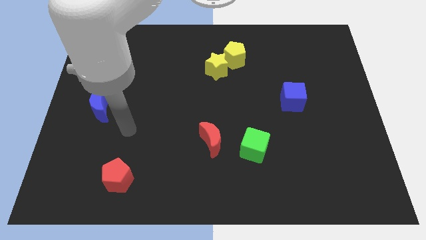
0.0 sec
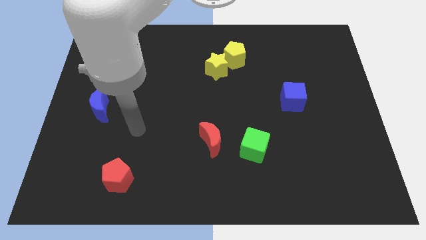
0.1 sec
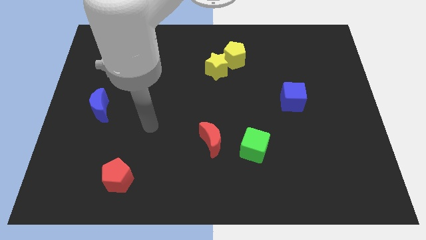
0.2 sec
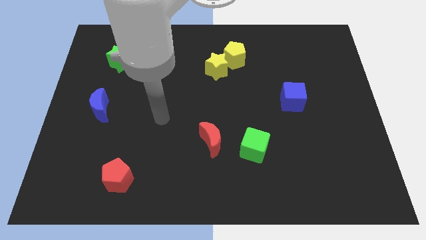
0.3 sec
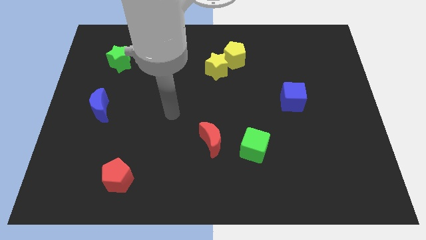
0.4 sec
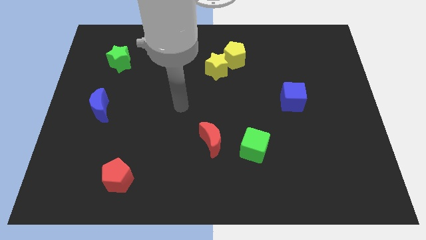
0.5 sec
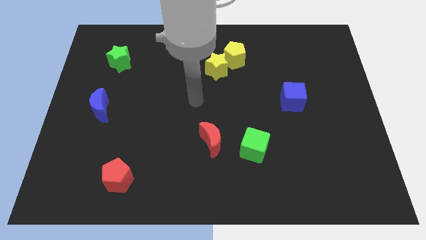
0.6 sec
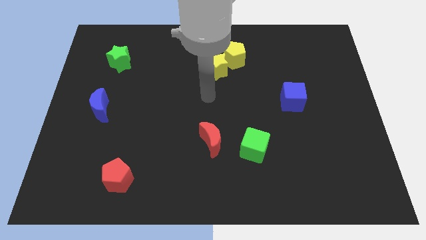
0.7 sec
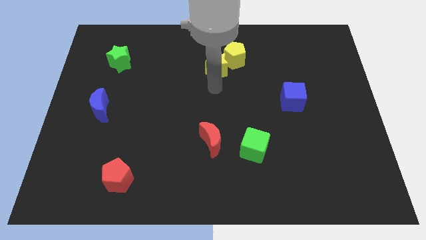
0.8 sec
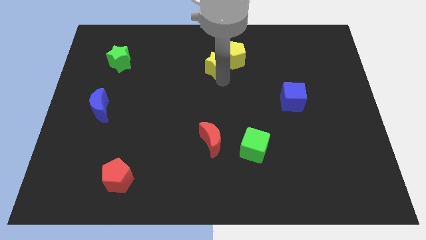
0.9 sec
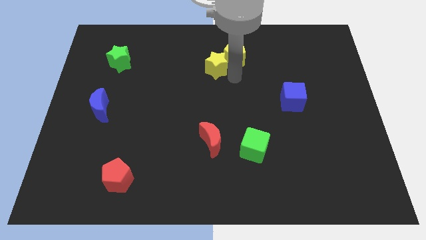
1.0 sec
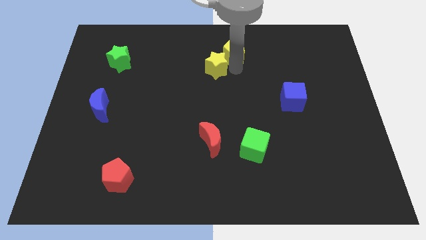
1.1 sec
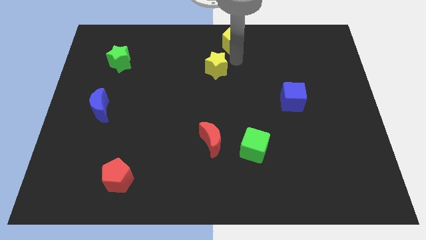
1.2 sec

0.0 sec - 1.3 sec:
separate the yellow star from the yellow pentagon

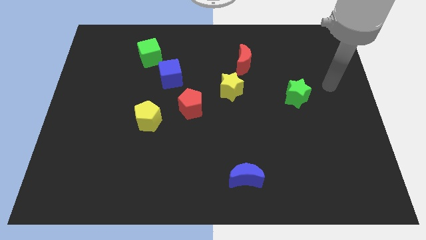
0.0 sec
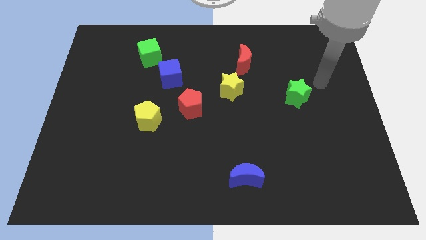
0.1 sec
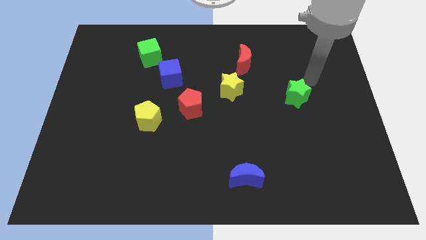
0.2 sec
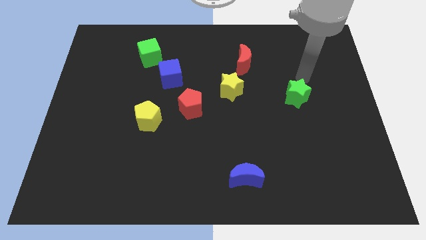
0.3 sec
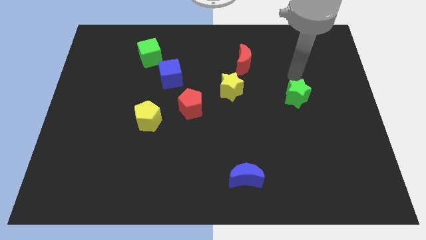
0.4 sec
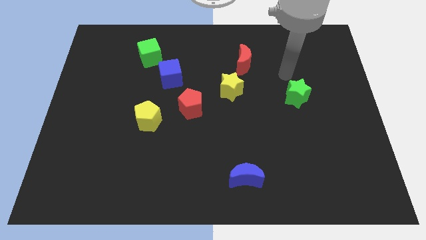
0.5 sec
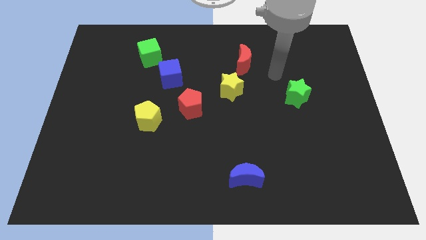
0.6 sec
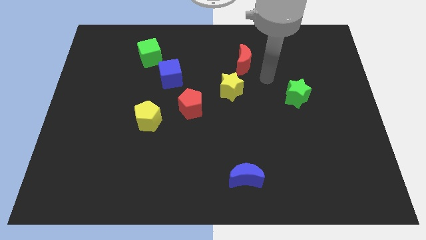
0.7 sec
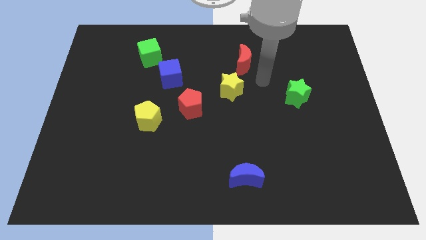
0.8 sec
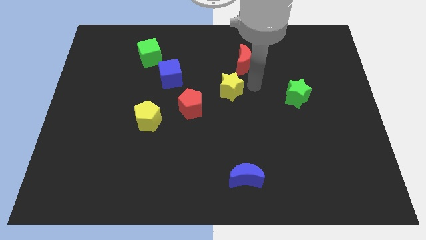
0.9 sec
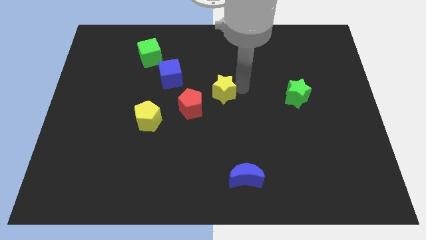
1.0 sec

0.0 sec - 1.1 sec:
separate the red moon from the yellow star

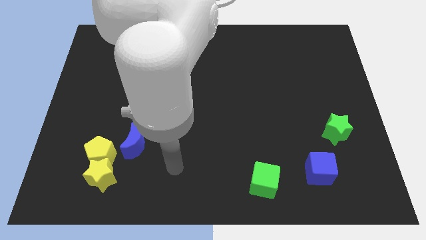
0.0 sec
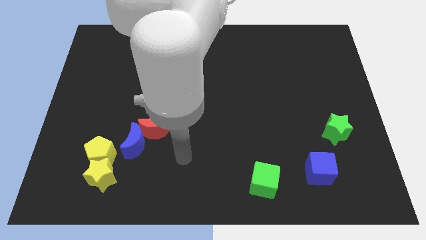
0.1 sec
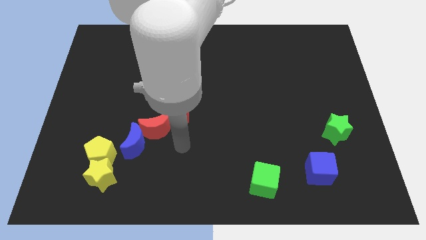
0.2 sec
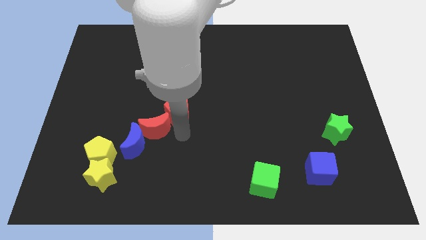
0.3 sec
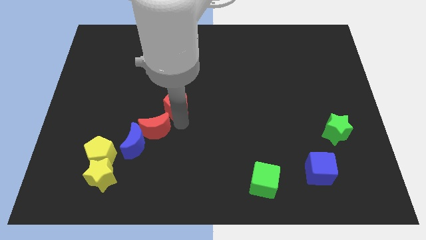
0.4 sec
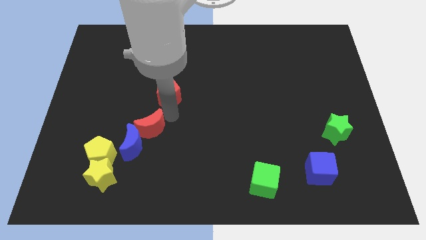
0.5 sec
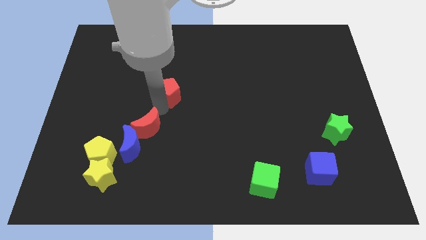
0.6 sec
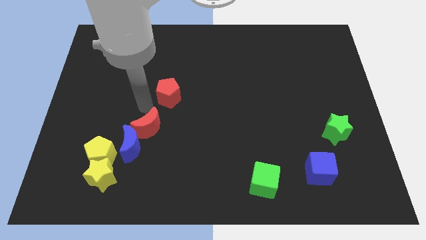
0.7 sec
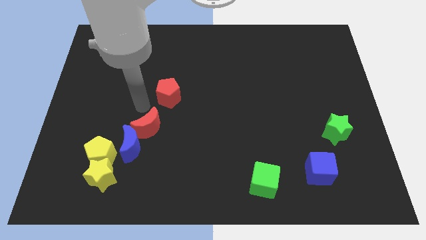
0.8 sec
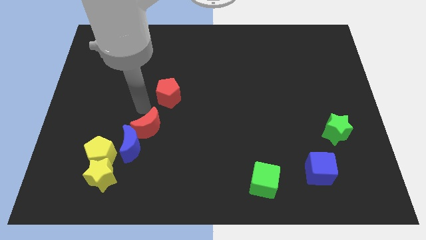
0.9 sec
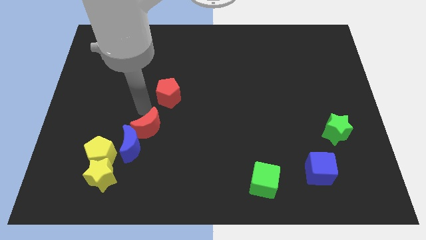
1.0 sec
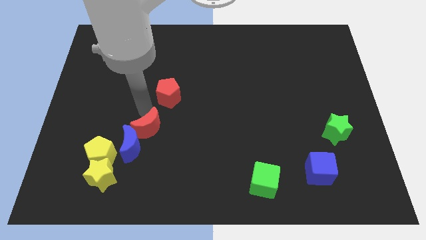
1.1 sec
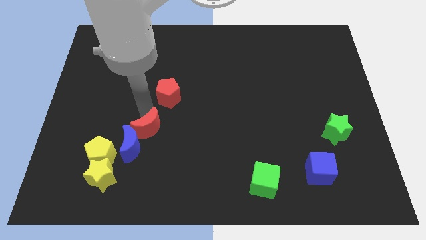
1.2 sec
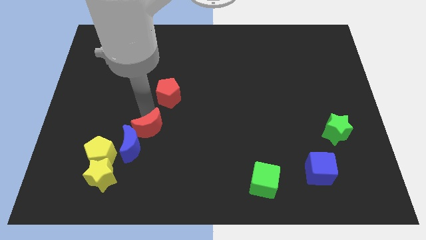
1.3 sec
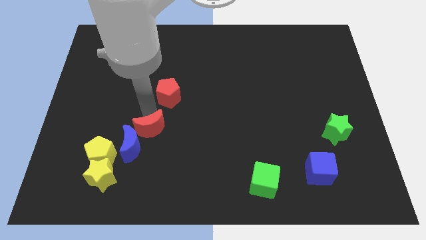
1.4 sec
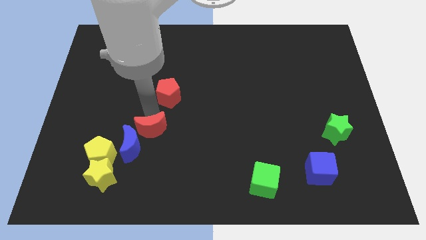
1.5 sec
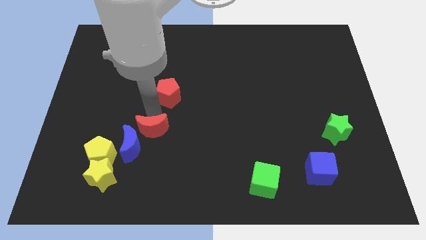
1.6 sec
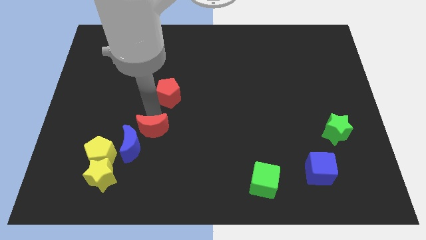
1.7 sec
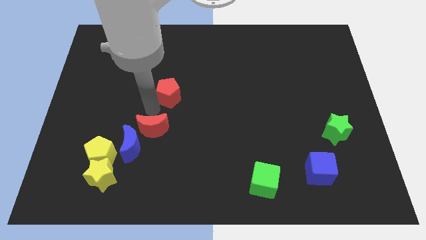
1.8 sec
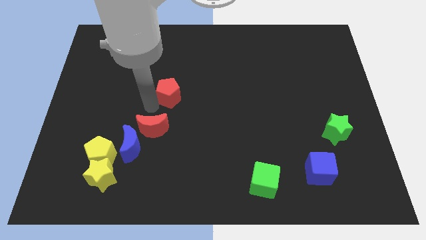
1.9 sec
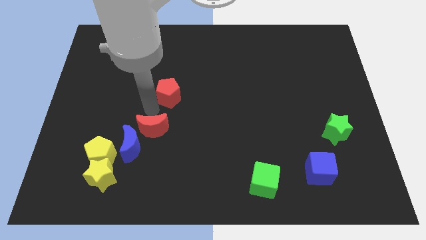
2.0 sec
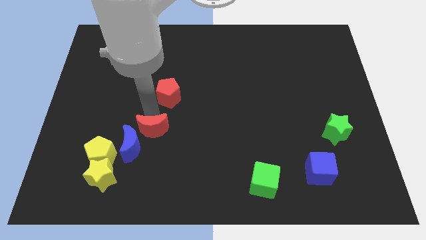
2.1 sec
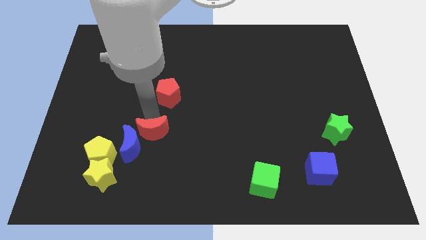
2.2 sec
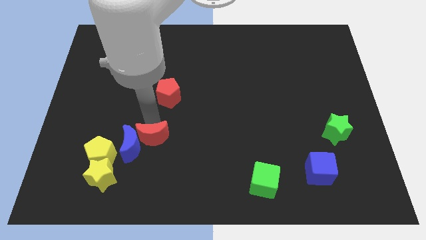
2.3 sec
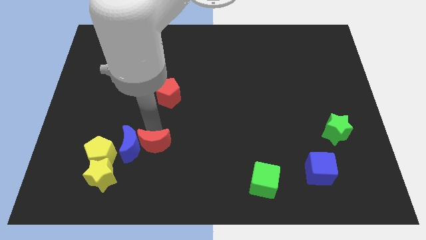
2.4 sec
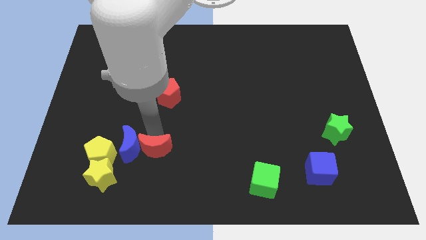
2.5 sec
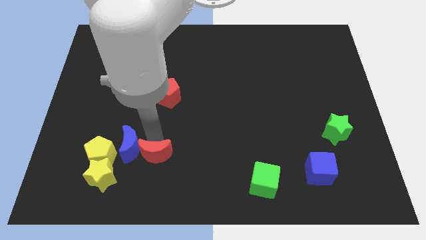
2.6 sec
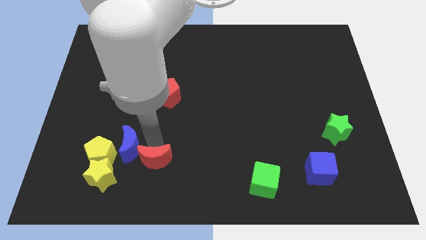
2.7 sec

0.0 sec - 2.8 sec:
move the red moon away from the blue moon and red pentagon

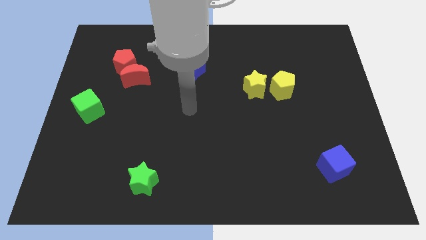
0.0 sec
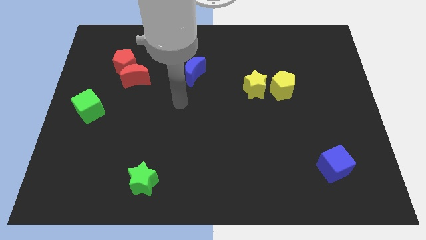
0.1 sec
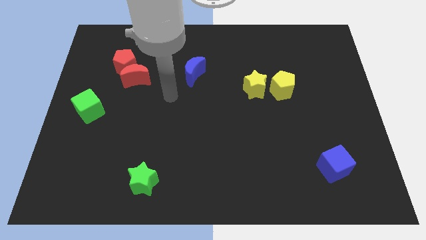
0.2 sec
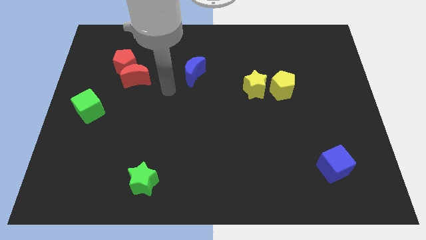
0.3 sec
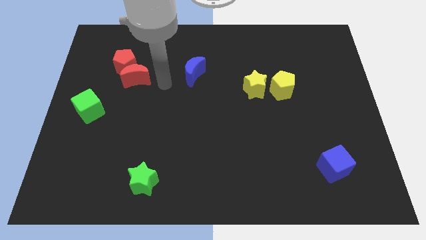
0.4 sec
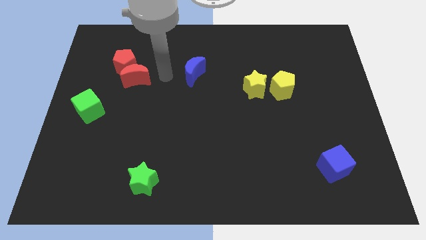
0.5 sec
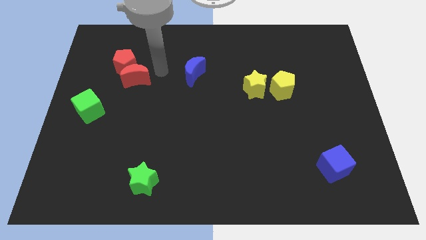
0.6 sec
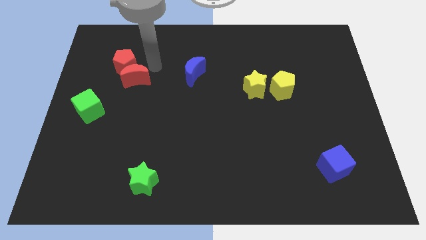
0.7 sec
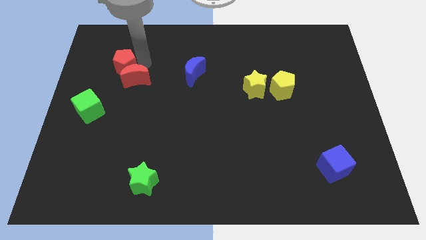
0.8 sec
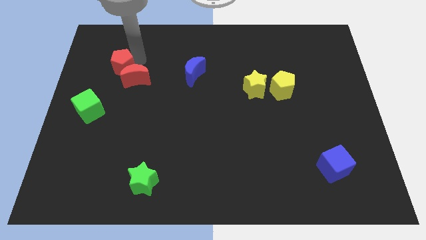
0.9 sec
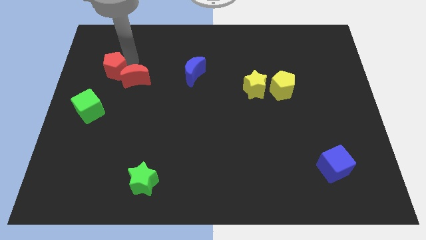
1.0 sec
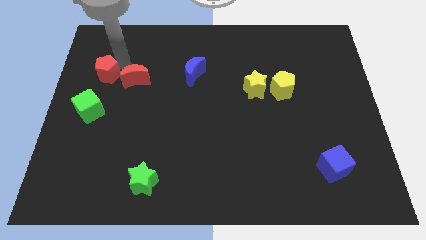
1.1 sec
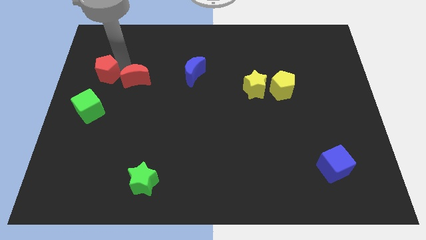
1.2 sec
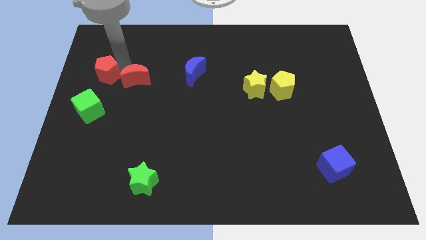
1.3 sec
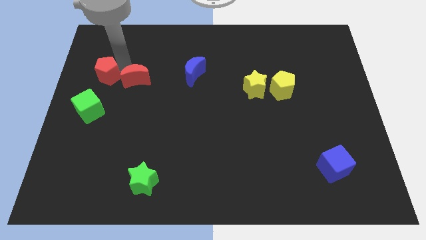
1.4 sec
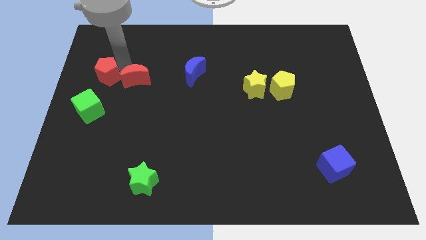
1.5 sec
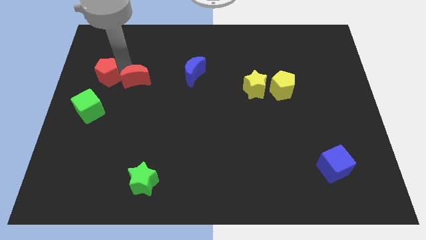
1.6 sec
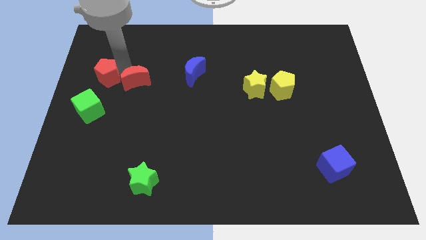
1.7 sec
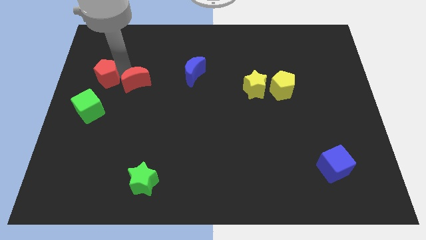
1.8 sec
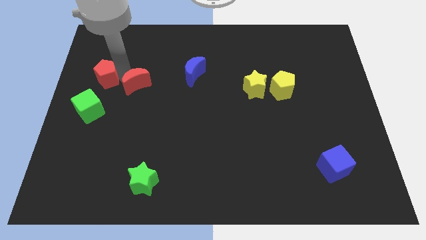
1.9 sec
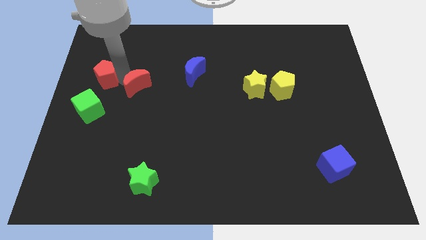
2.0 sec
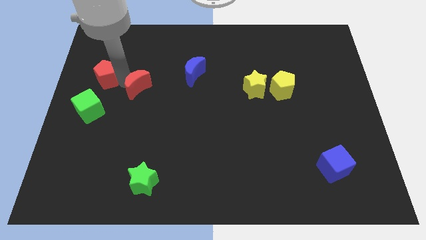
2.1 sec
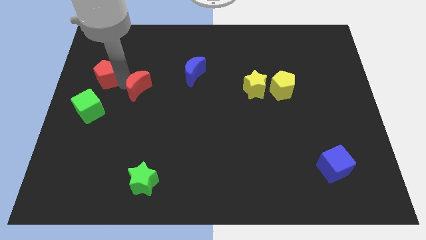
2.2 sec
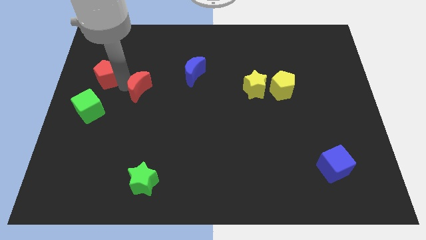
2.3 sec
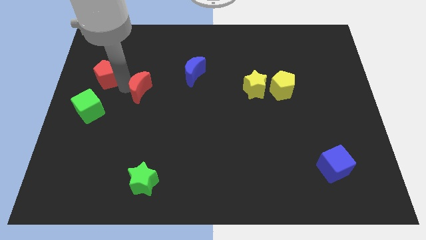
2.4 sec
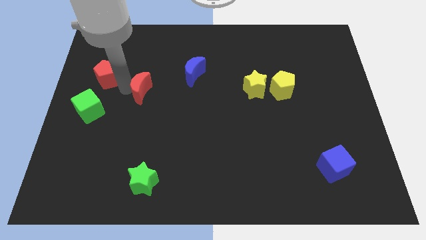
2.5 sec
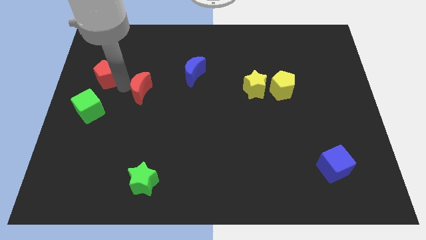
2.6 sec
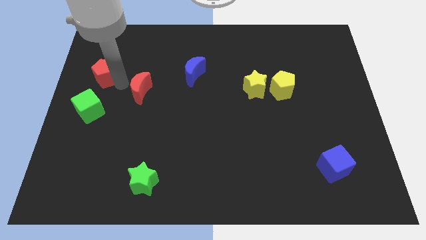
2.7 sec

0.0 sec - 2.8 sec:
separate the red moon from the red pentagon

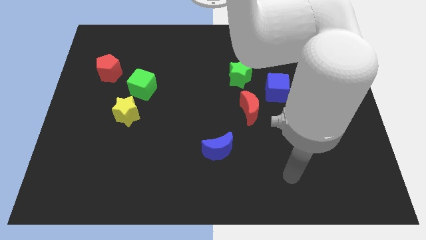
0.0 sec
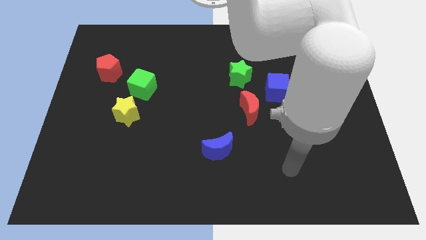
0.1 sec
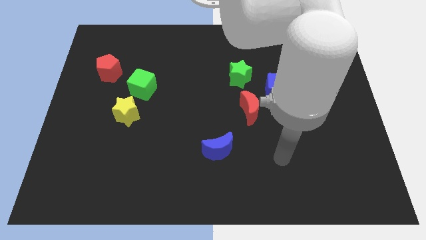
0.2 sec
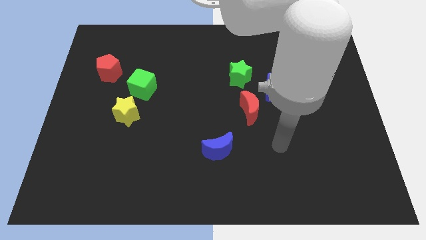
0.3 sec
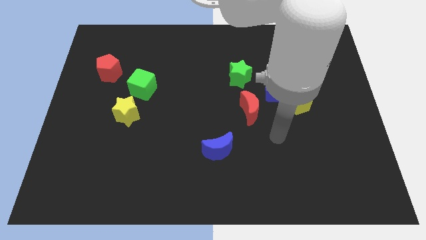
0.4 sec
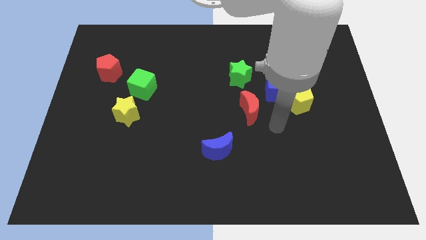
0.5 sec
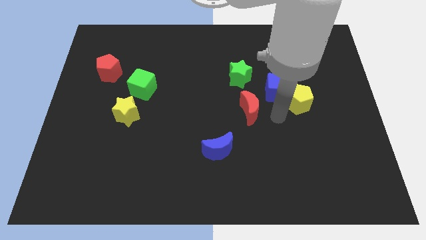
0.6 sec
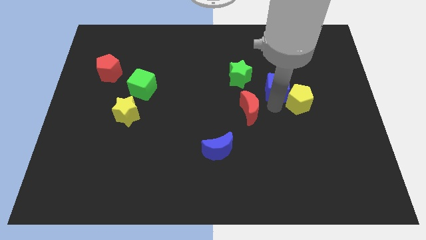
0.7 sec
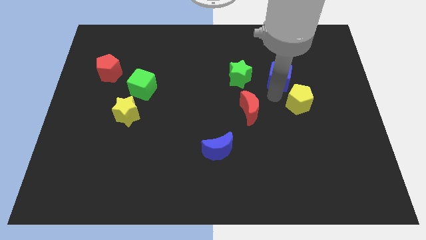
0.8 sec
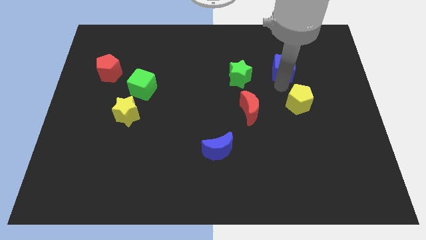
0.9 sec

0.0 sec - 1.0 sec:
separate the yellow pentagon from the blue cube

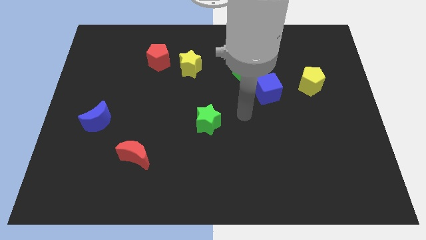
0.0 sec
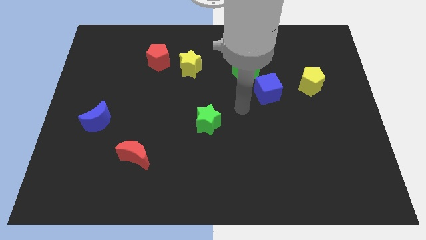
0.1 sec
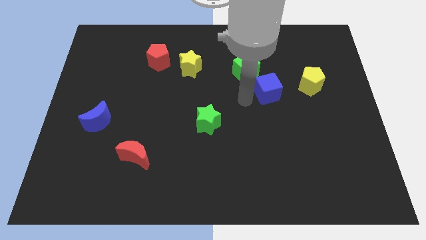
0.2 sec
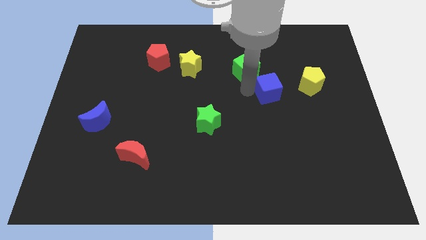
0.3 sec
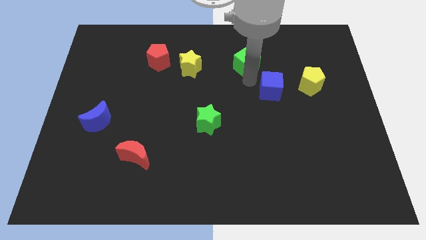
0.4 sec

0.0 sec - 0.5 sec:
pull the blue cube apart from the green cube
